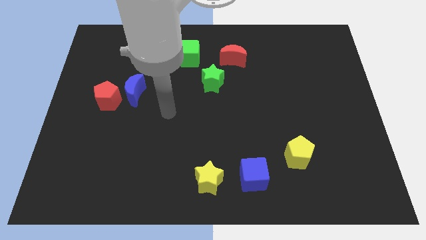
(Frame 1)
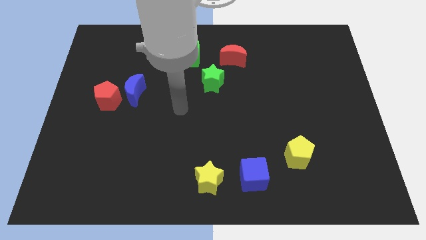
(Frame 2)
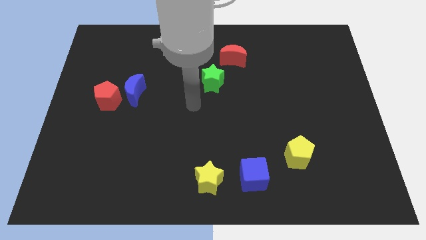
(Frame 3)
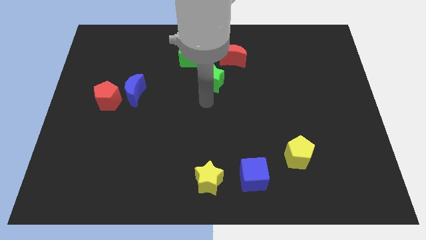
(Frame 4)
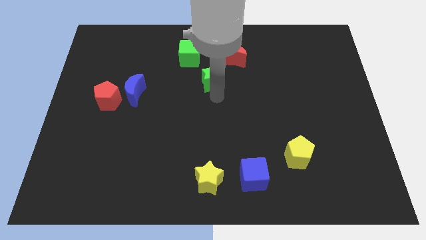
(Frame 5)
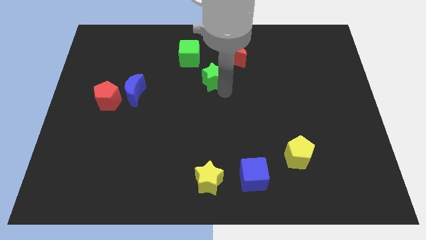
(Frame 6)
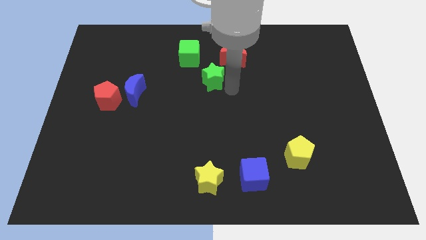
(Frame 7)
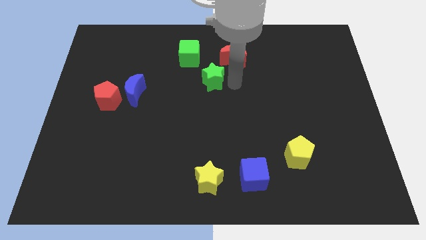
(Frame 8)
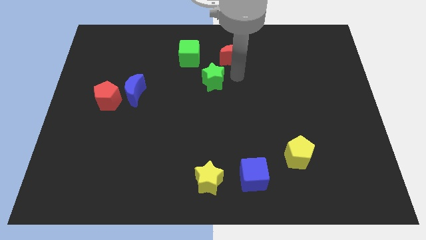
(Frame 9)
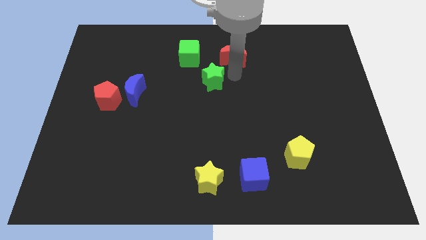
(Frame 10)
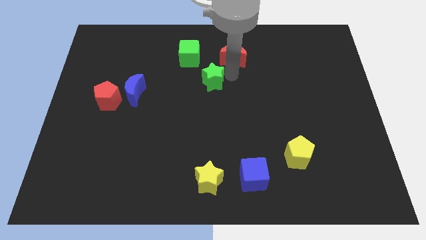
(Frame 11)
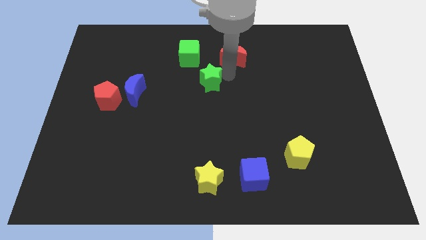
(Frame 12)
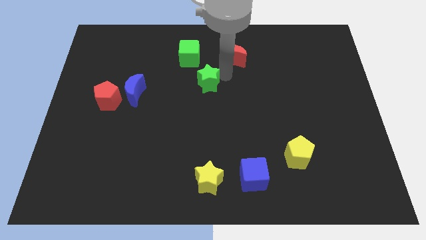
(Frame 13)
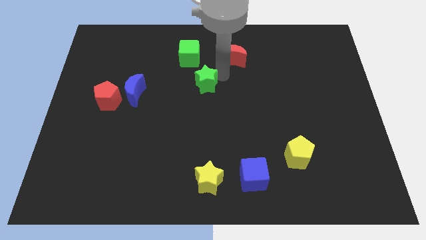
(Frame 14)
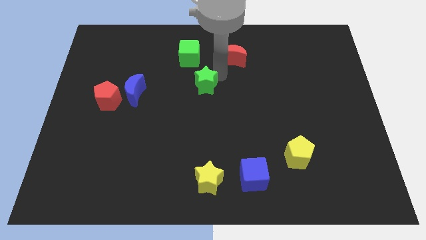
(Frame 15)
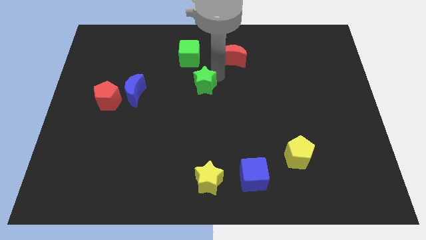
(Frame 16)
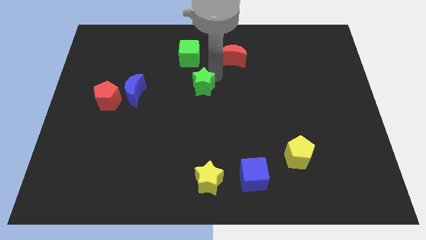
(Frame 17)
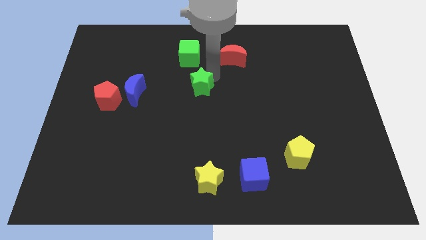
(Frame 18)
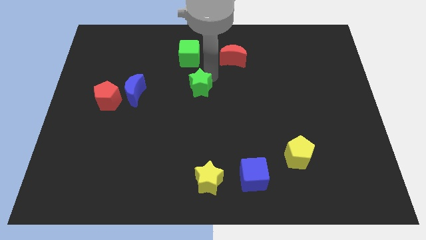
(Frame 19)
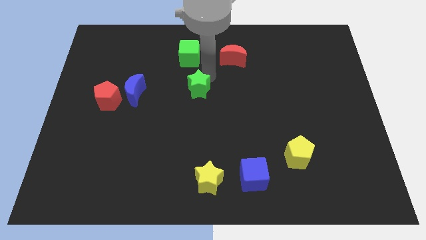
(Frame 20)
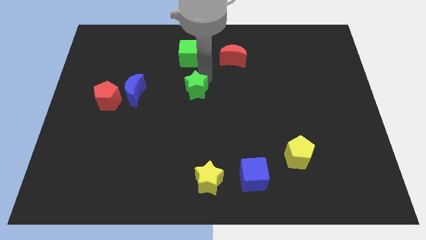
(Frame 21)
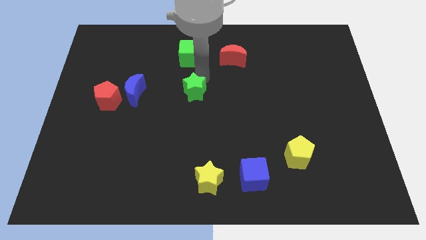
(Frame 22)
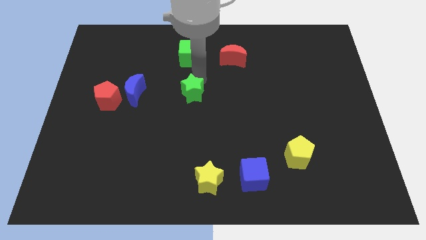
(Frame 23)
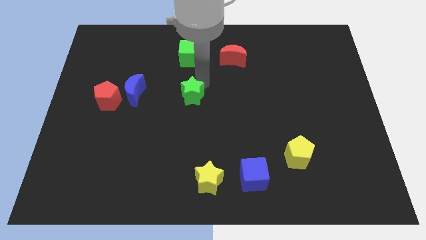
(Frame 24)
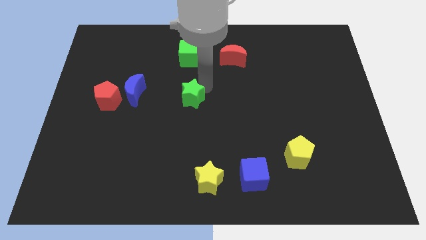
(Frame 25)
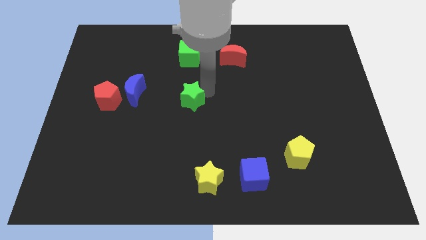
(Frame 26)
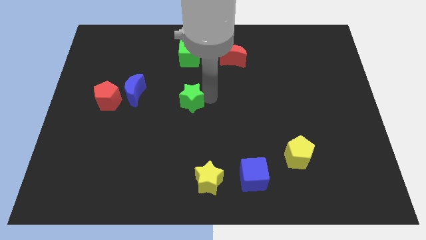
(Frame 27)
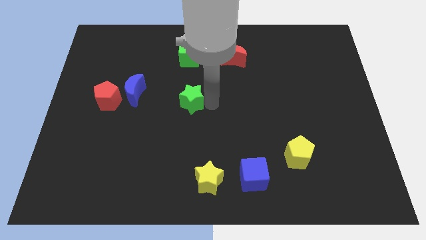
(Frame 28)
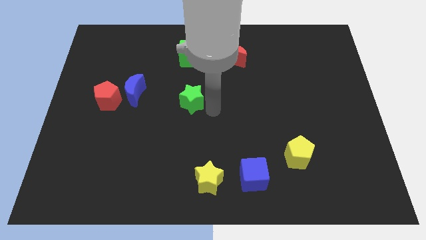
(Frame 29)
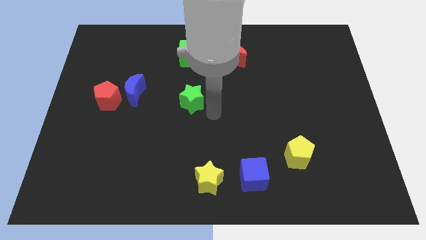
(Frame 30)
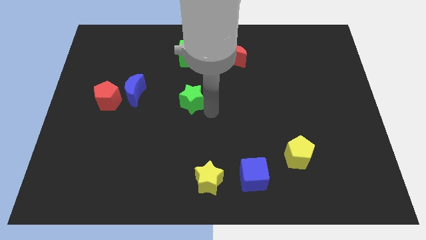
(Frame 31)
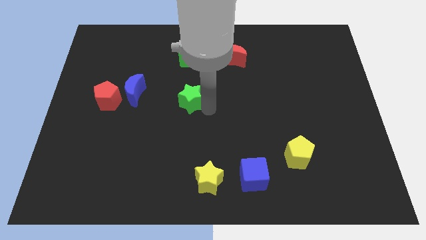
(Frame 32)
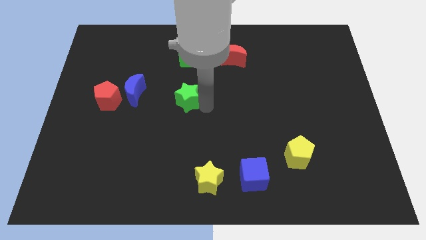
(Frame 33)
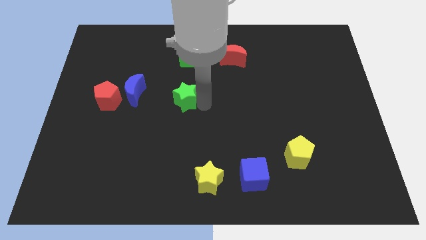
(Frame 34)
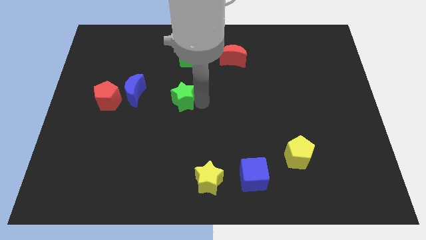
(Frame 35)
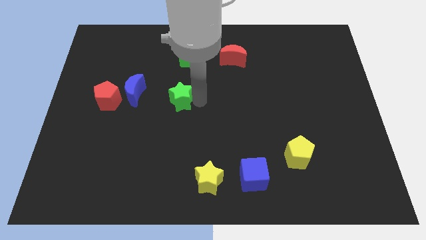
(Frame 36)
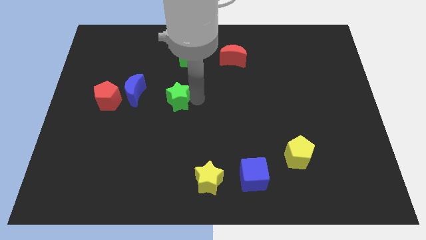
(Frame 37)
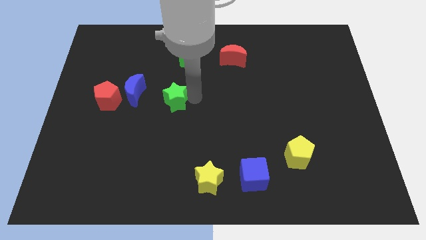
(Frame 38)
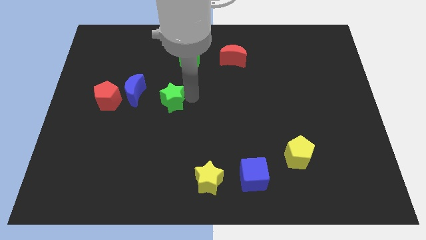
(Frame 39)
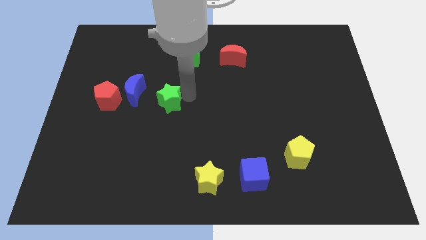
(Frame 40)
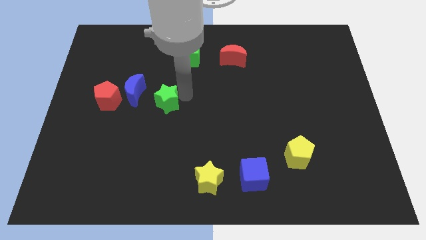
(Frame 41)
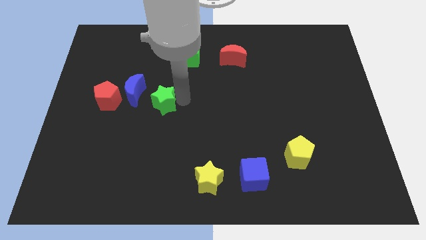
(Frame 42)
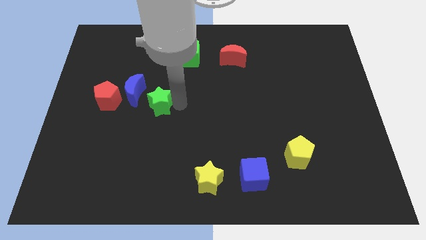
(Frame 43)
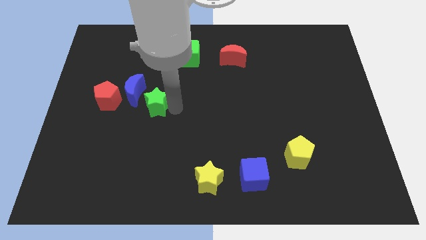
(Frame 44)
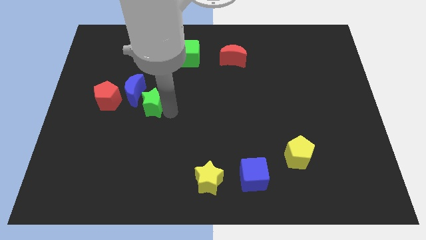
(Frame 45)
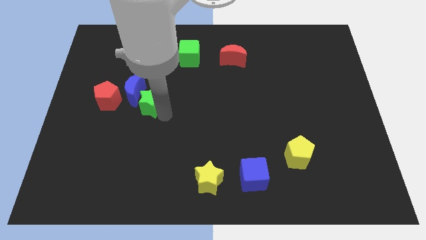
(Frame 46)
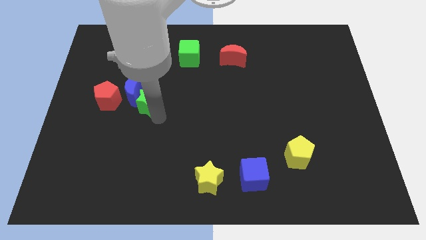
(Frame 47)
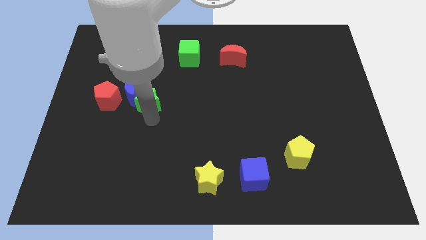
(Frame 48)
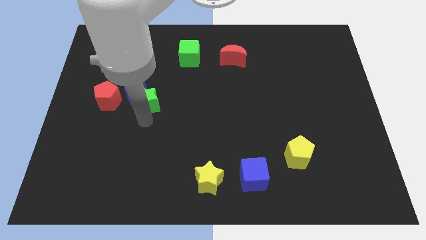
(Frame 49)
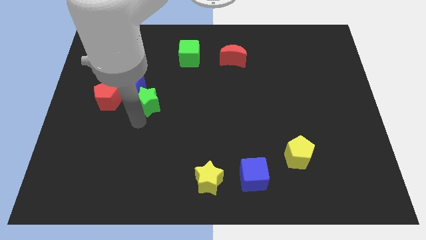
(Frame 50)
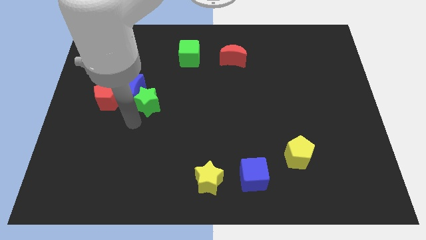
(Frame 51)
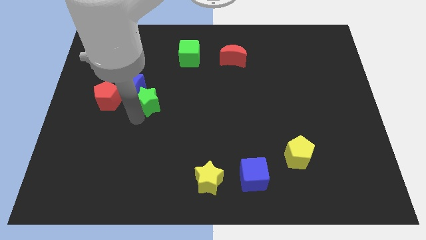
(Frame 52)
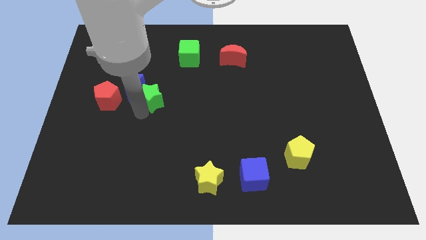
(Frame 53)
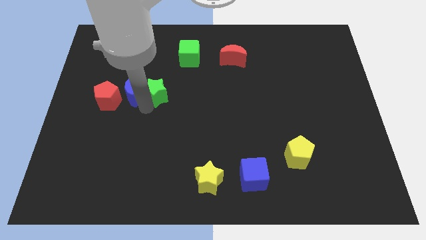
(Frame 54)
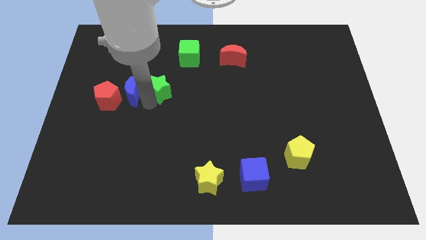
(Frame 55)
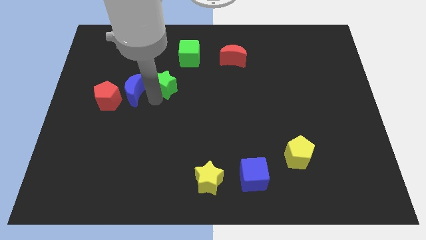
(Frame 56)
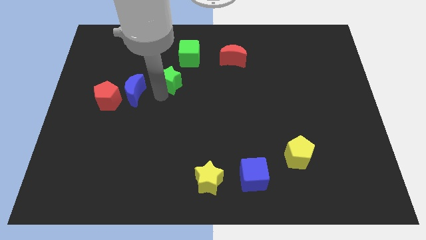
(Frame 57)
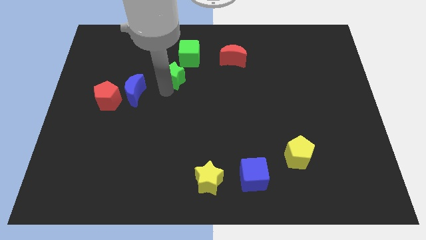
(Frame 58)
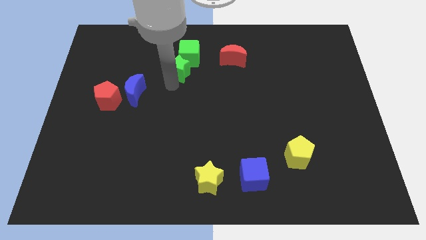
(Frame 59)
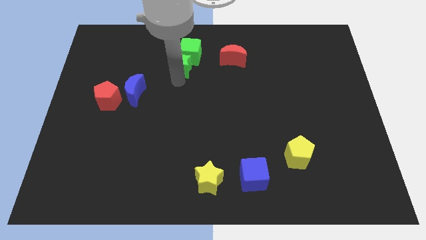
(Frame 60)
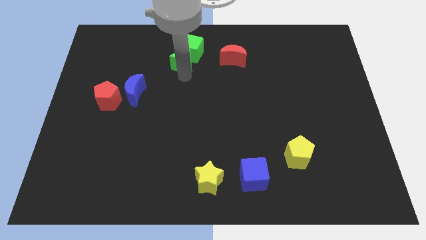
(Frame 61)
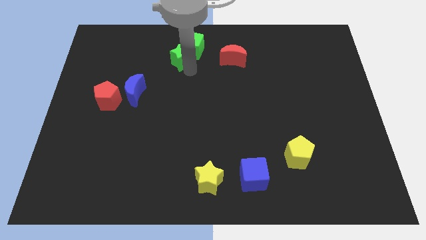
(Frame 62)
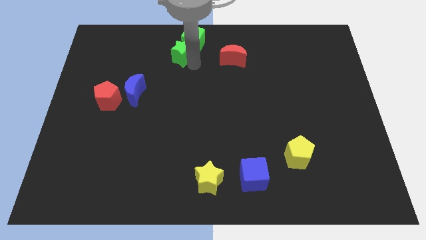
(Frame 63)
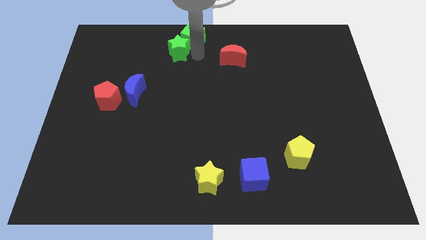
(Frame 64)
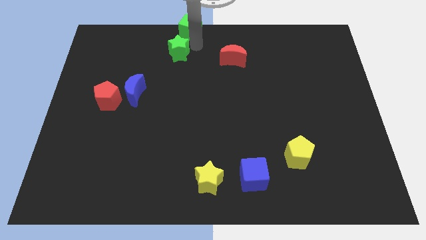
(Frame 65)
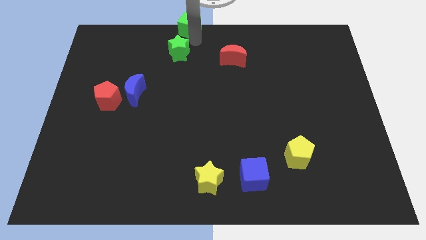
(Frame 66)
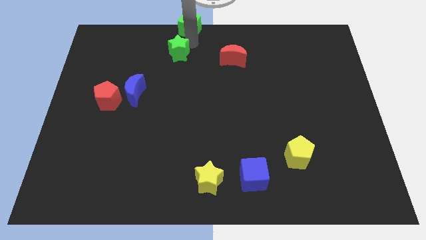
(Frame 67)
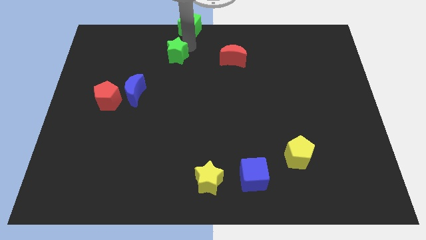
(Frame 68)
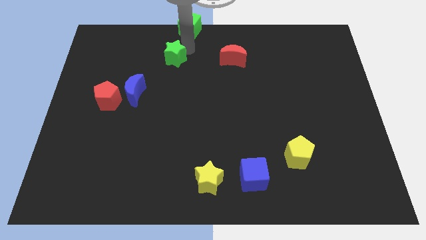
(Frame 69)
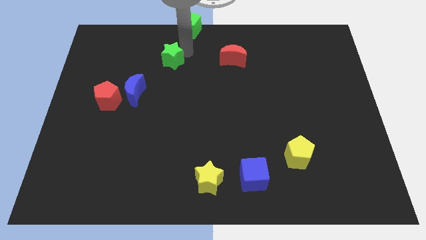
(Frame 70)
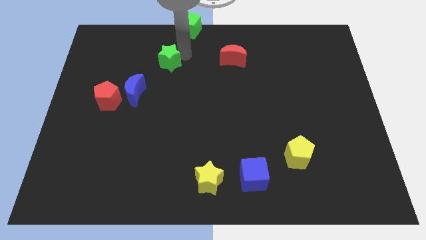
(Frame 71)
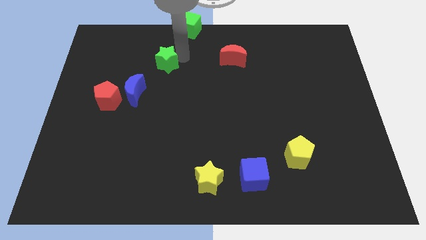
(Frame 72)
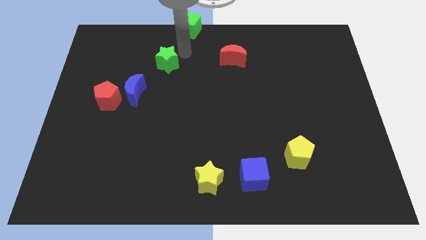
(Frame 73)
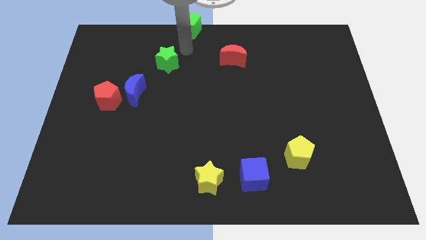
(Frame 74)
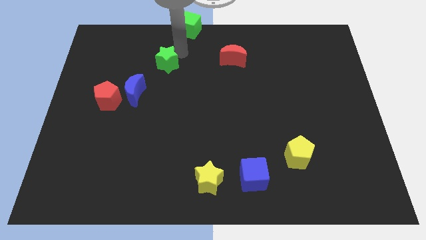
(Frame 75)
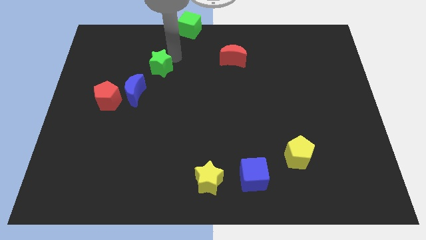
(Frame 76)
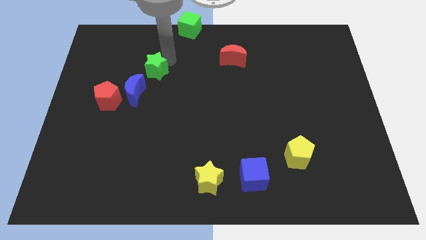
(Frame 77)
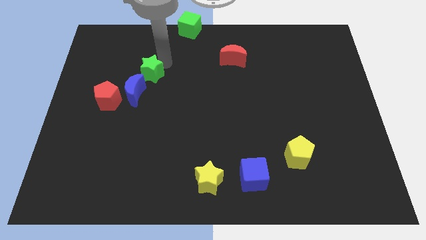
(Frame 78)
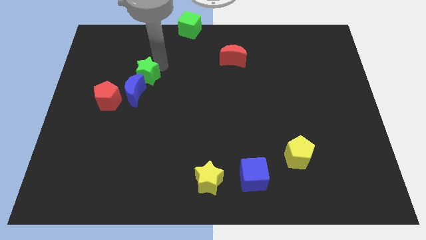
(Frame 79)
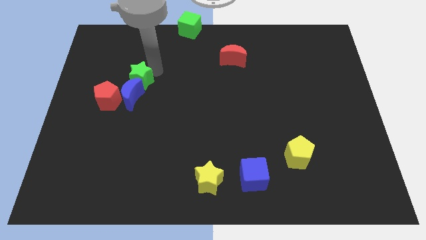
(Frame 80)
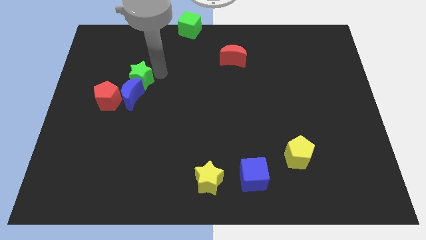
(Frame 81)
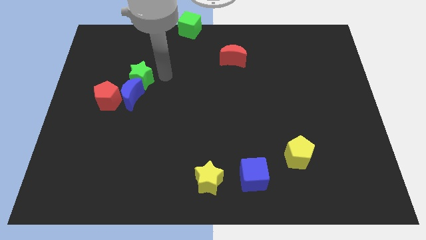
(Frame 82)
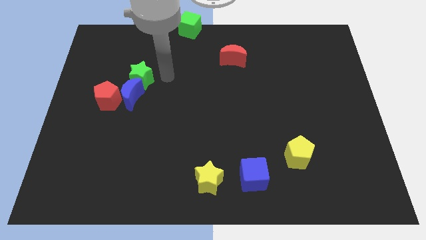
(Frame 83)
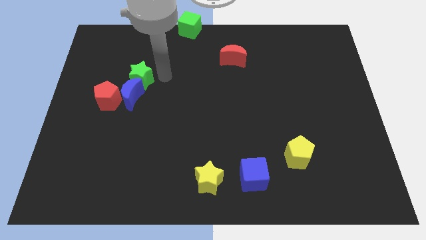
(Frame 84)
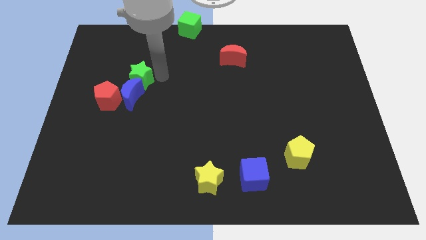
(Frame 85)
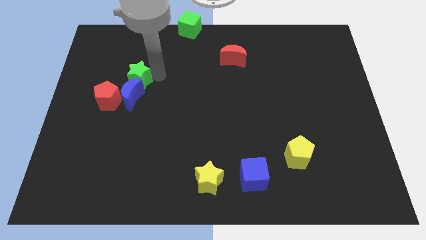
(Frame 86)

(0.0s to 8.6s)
put the green star to the top left of the blue moon
